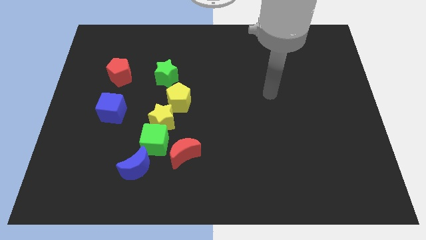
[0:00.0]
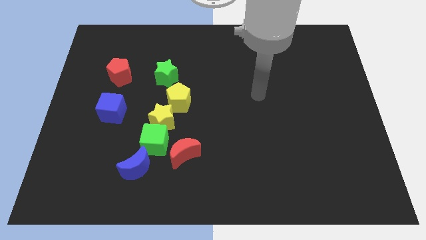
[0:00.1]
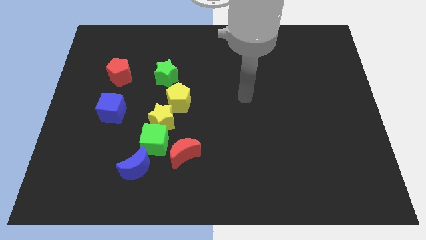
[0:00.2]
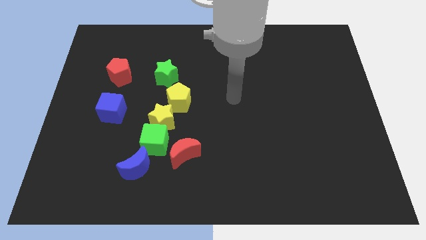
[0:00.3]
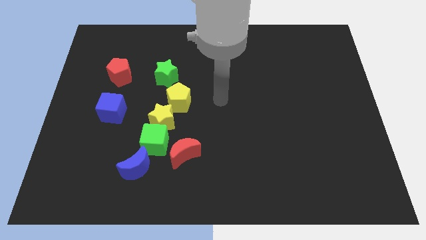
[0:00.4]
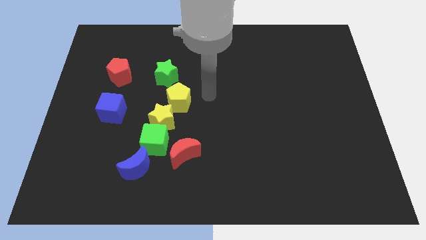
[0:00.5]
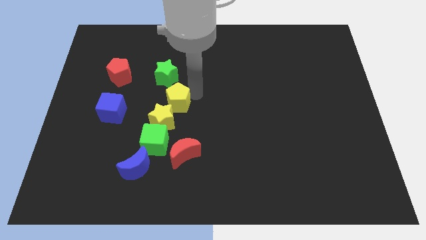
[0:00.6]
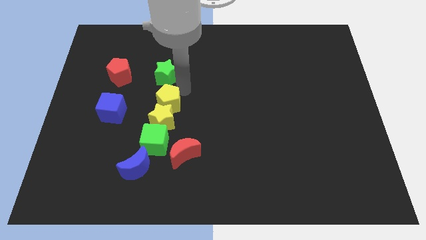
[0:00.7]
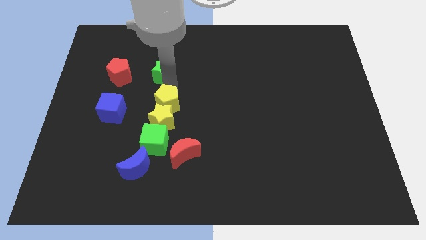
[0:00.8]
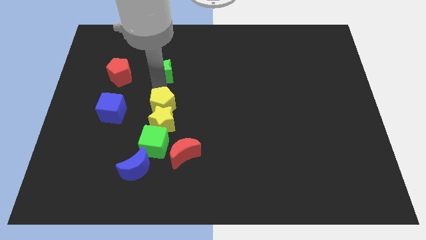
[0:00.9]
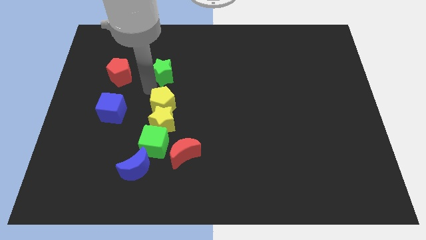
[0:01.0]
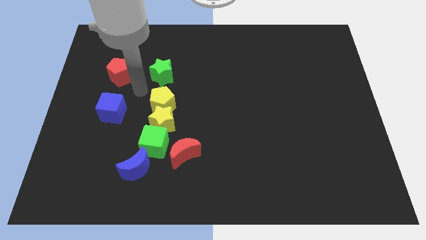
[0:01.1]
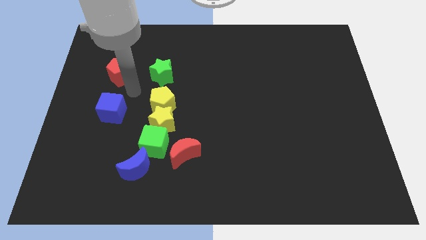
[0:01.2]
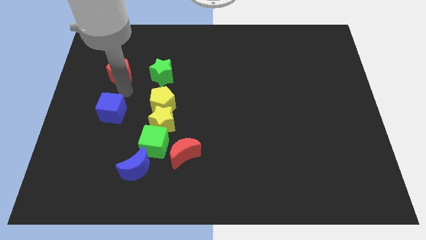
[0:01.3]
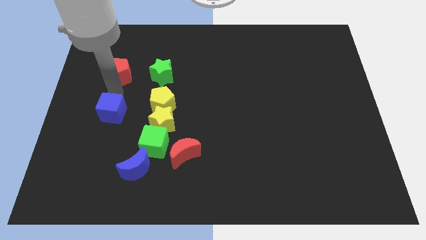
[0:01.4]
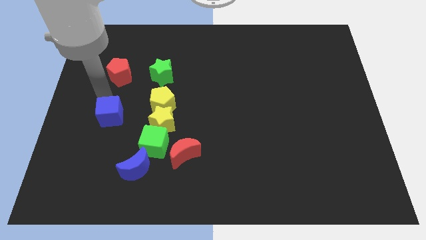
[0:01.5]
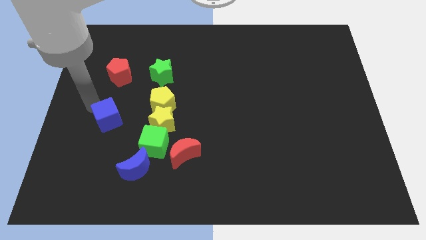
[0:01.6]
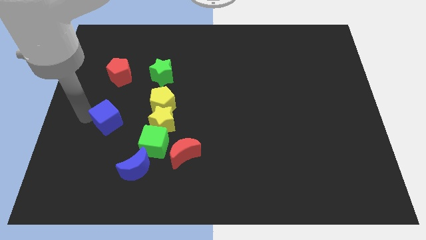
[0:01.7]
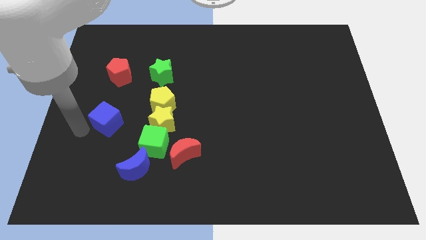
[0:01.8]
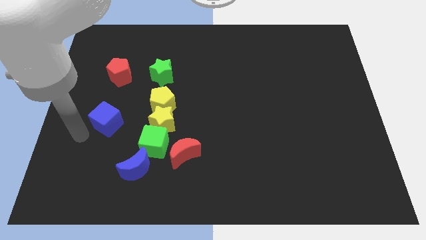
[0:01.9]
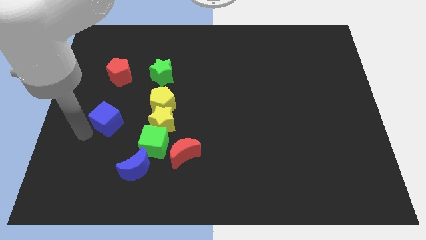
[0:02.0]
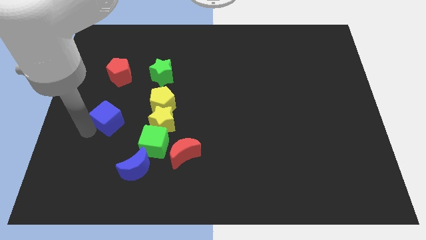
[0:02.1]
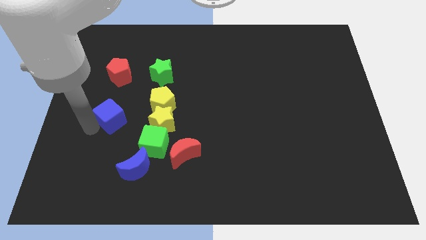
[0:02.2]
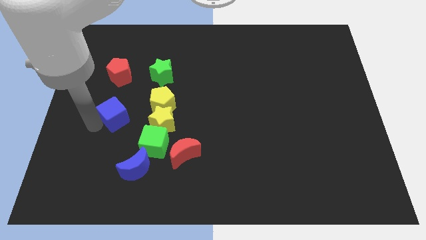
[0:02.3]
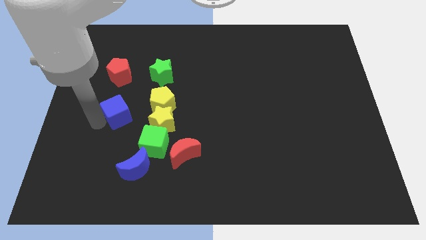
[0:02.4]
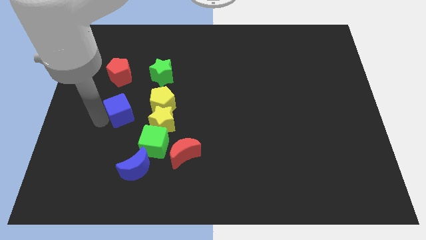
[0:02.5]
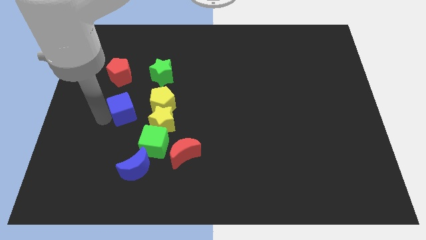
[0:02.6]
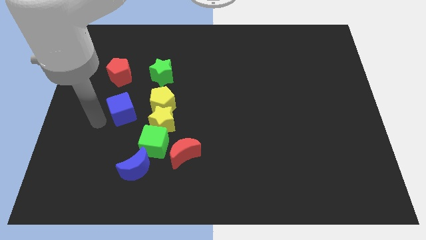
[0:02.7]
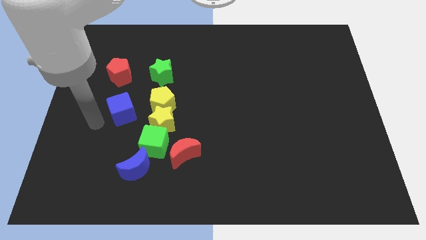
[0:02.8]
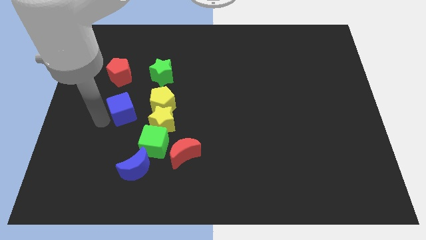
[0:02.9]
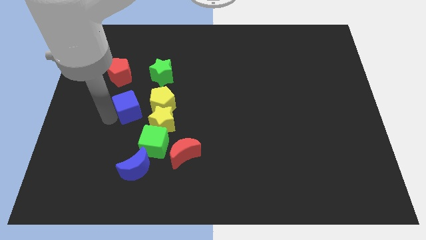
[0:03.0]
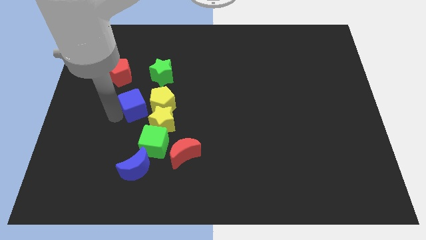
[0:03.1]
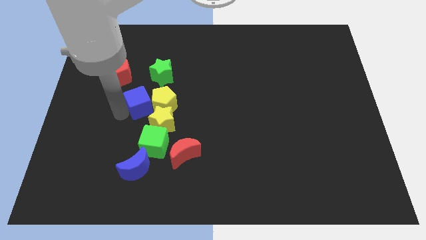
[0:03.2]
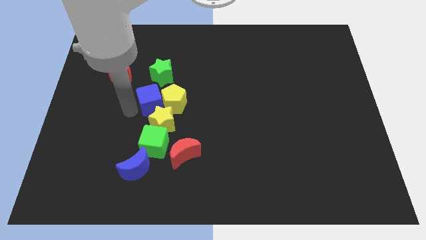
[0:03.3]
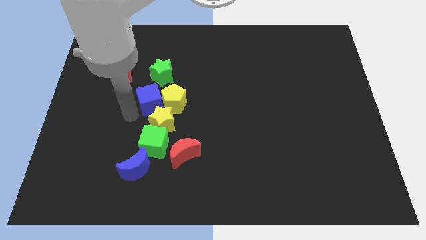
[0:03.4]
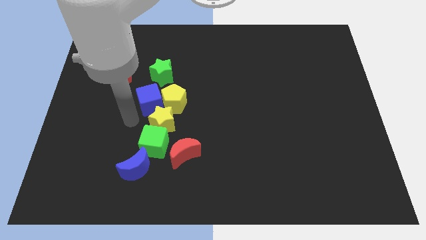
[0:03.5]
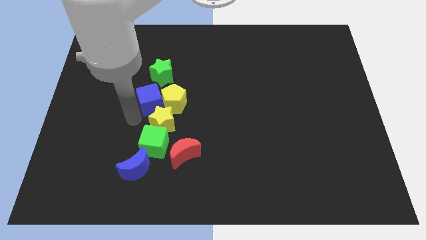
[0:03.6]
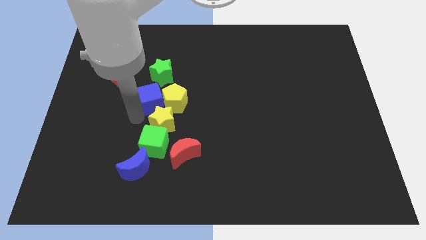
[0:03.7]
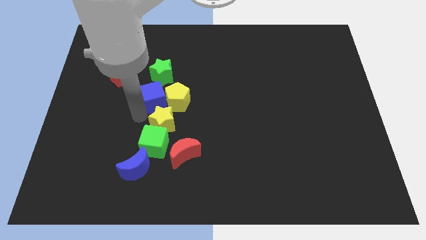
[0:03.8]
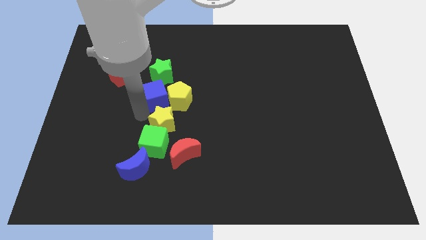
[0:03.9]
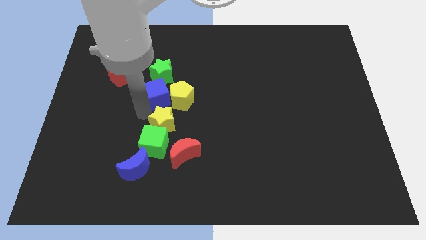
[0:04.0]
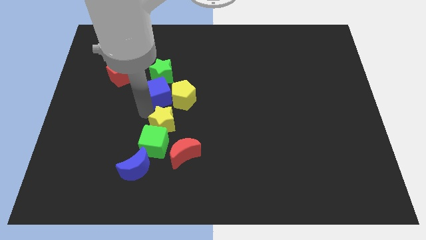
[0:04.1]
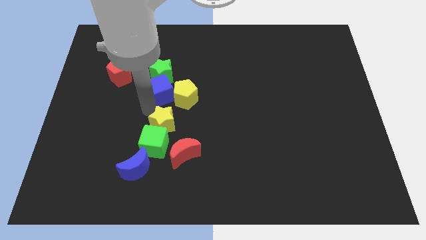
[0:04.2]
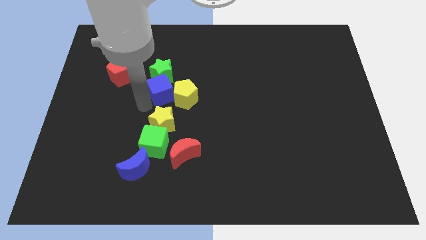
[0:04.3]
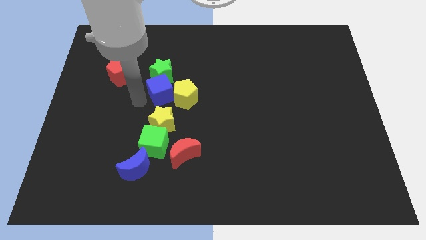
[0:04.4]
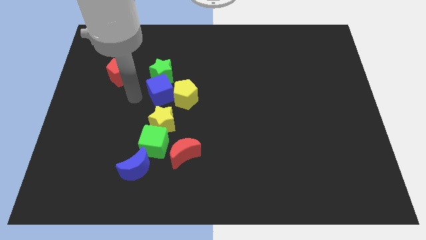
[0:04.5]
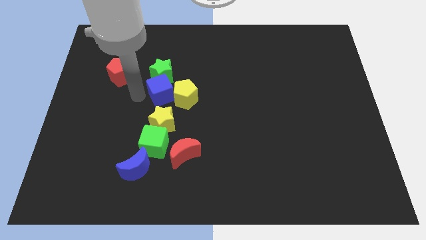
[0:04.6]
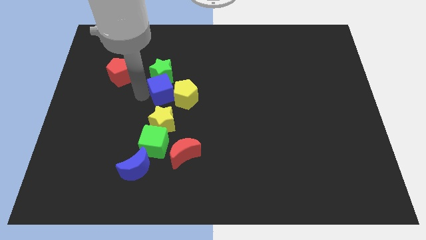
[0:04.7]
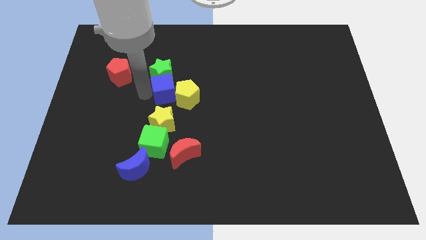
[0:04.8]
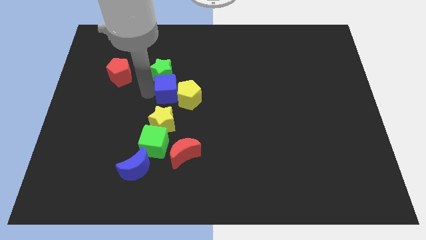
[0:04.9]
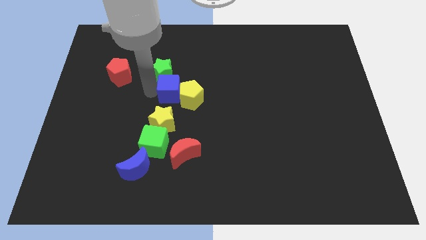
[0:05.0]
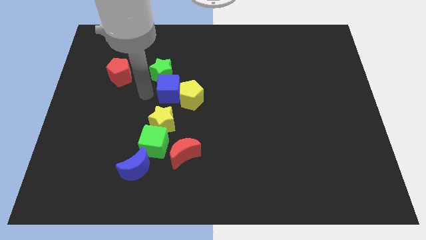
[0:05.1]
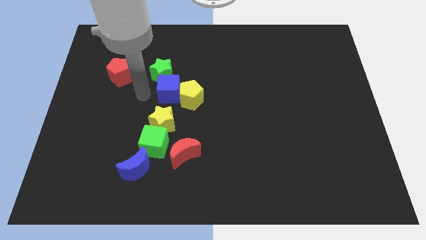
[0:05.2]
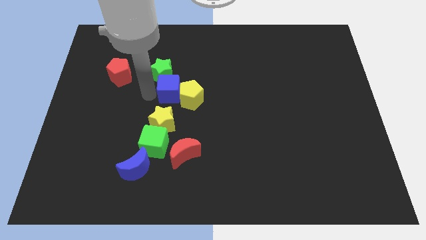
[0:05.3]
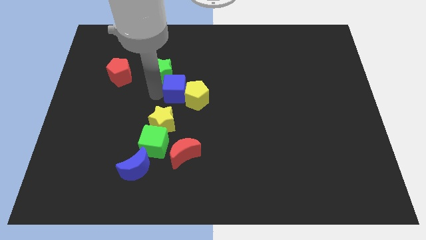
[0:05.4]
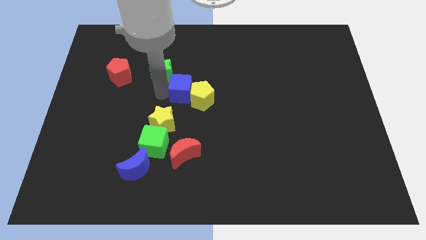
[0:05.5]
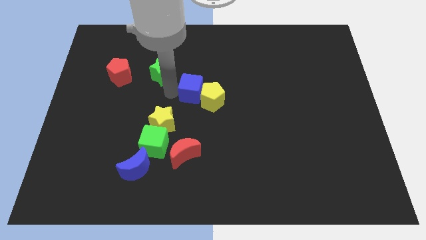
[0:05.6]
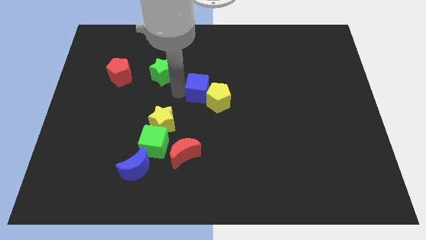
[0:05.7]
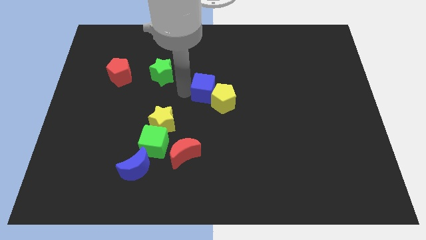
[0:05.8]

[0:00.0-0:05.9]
slide the blue cube right

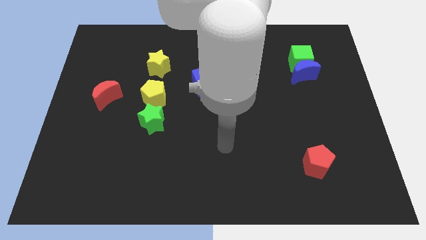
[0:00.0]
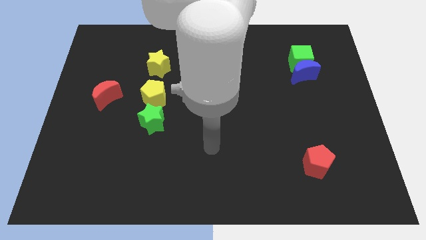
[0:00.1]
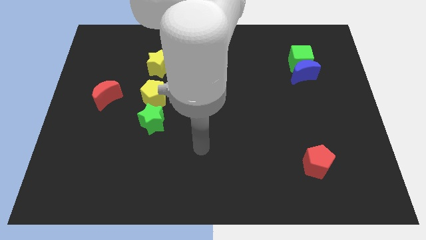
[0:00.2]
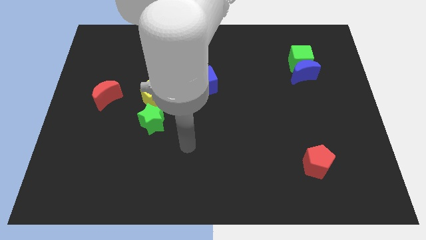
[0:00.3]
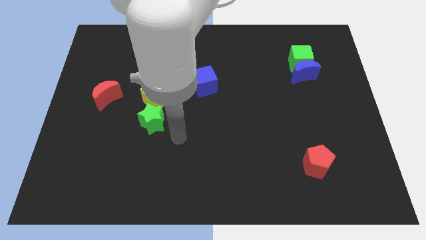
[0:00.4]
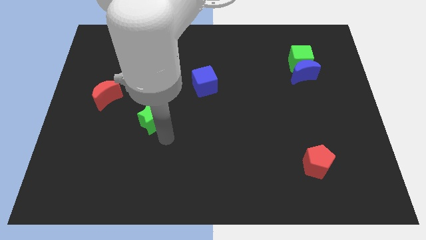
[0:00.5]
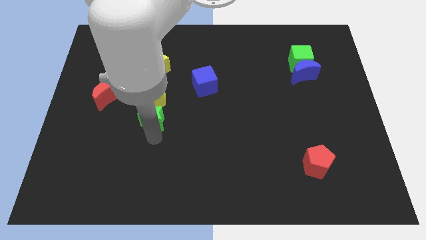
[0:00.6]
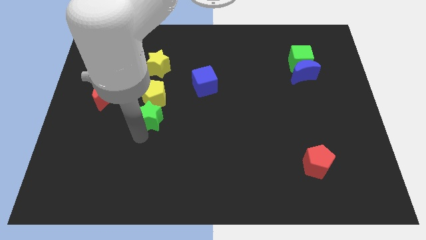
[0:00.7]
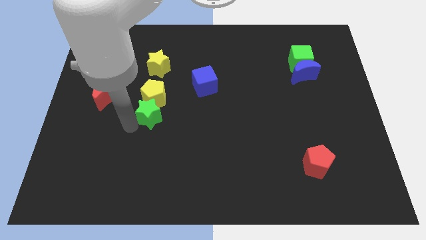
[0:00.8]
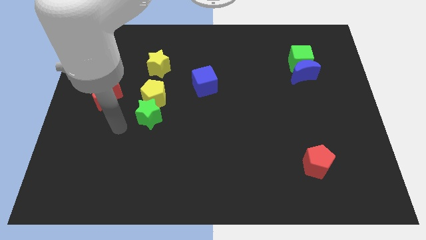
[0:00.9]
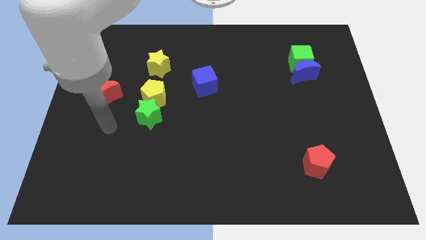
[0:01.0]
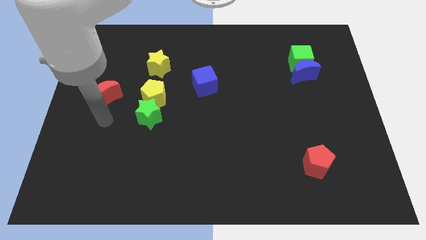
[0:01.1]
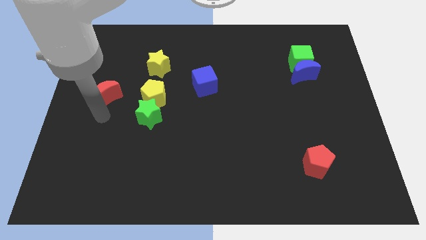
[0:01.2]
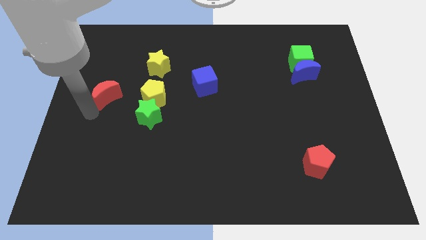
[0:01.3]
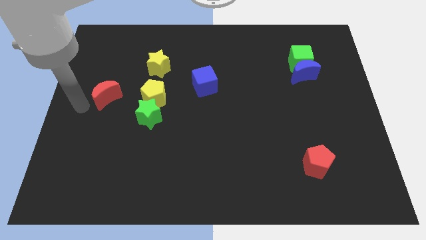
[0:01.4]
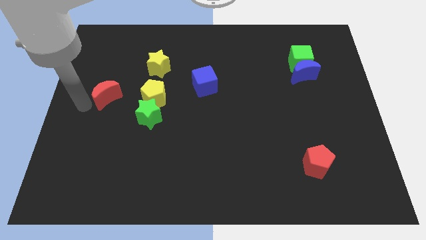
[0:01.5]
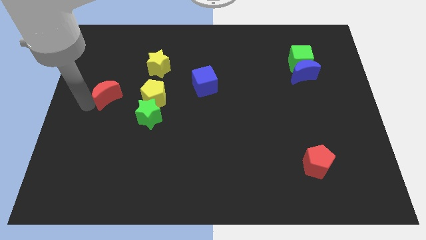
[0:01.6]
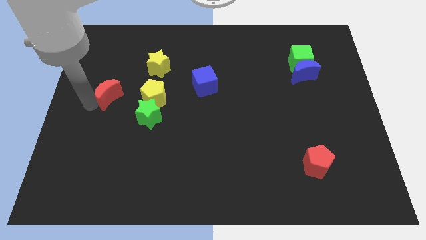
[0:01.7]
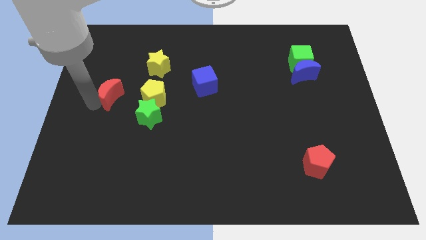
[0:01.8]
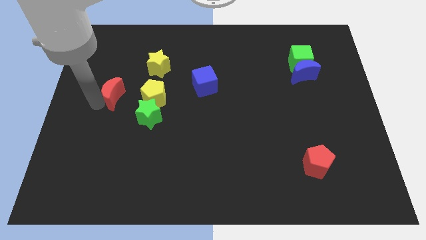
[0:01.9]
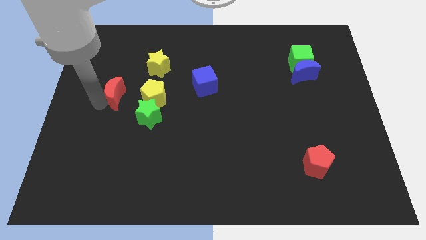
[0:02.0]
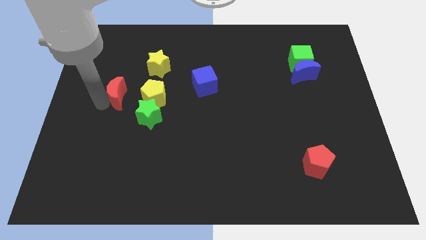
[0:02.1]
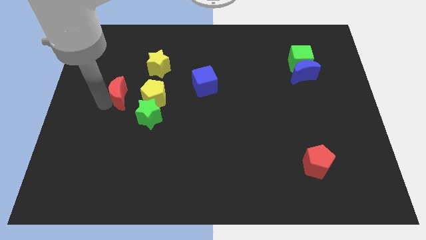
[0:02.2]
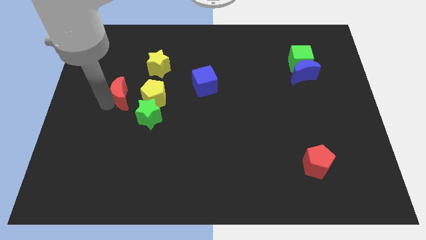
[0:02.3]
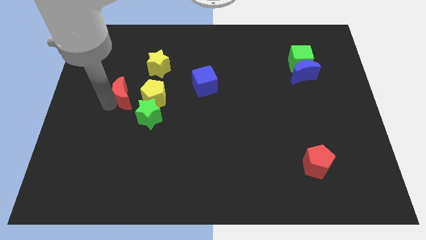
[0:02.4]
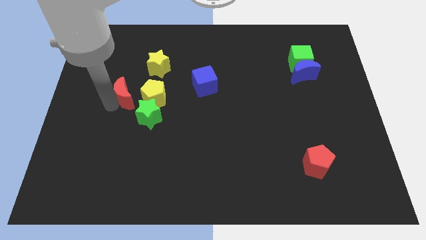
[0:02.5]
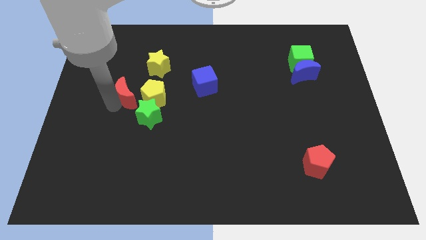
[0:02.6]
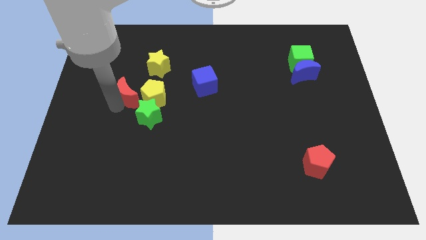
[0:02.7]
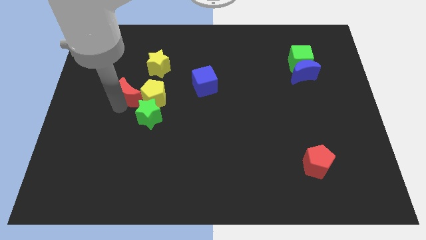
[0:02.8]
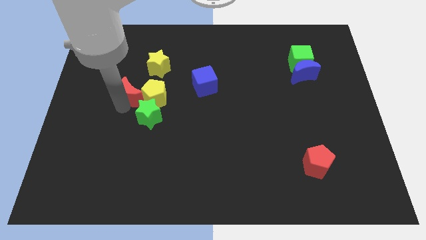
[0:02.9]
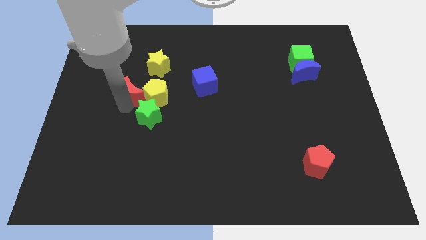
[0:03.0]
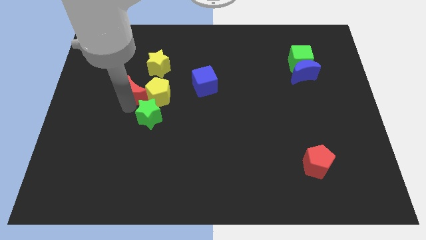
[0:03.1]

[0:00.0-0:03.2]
move the red moon a bit to the right
